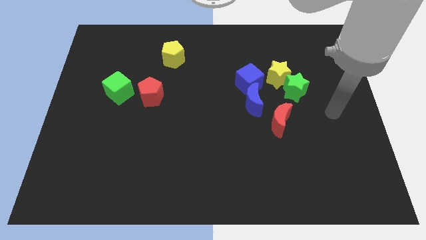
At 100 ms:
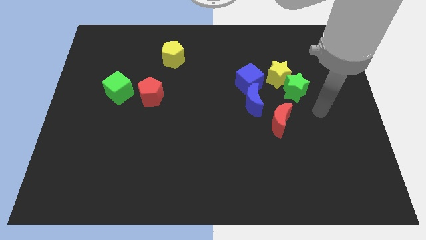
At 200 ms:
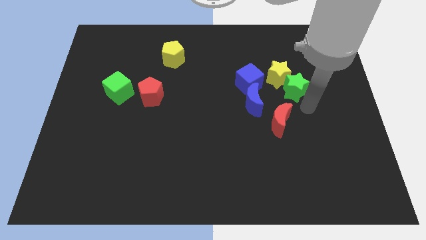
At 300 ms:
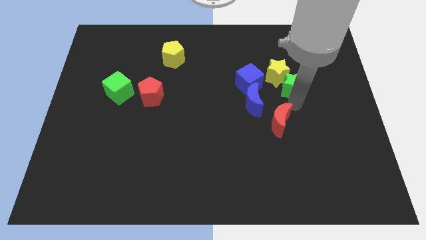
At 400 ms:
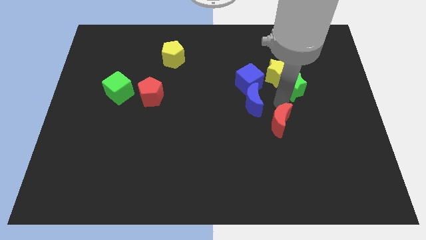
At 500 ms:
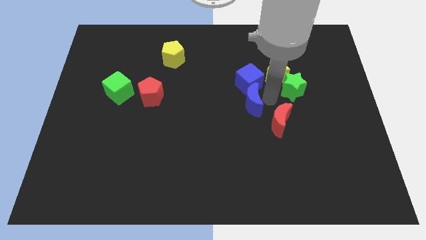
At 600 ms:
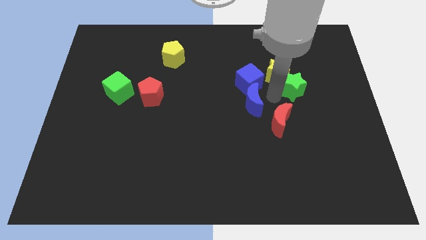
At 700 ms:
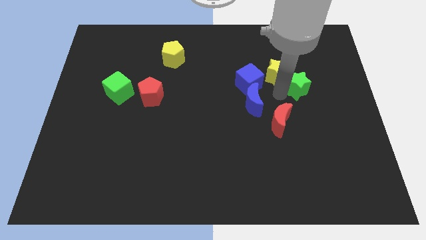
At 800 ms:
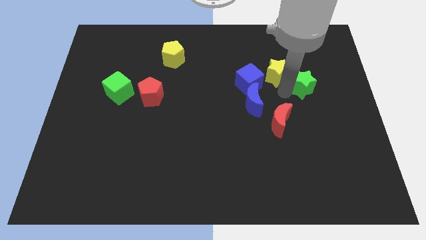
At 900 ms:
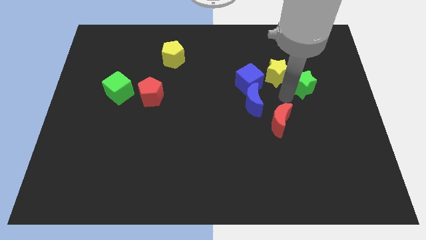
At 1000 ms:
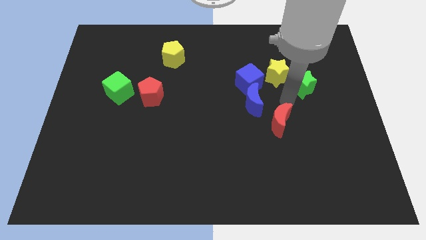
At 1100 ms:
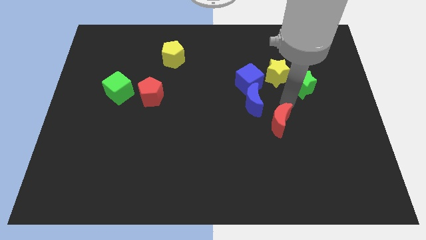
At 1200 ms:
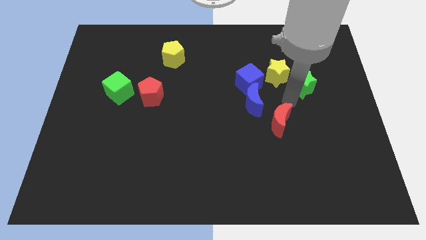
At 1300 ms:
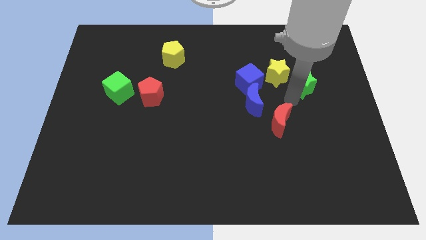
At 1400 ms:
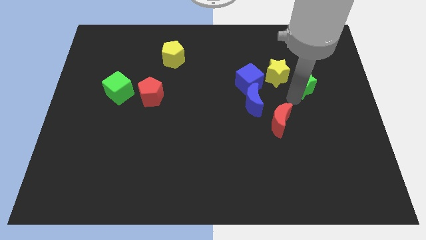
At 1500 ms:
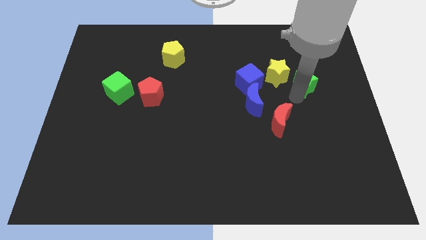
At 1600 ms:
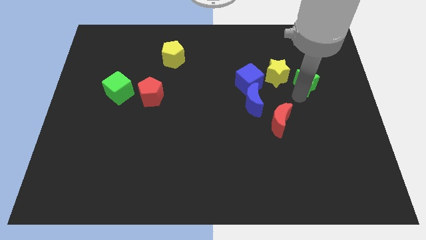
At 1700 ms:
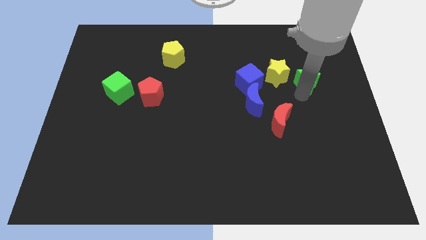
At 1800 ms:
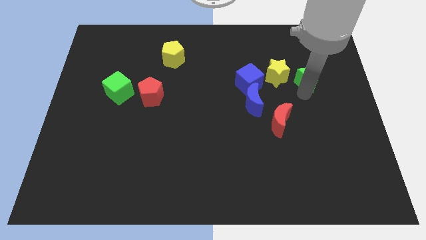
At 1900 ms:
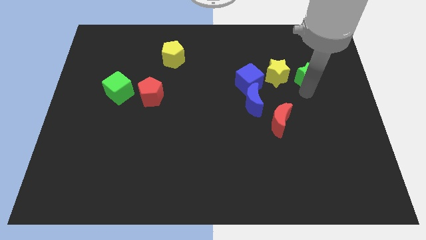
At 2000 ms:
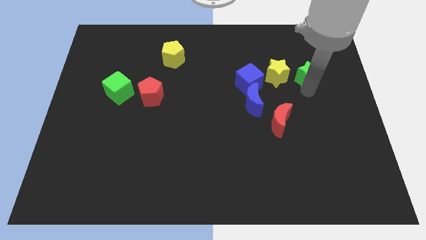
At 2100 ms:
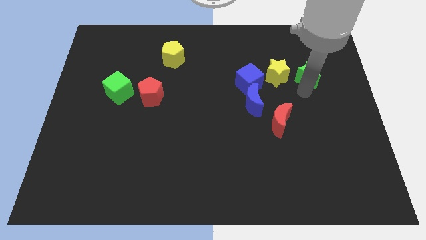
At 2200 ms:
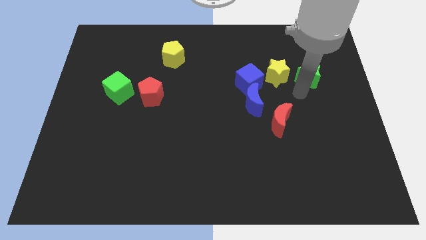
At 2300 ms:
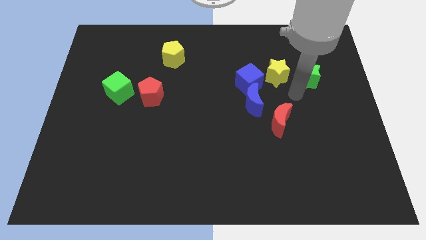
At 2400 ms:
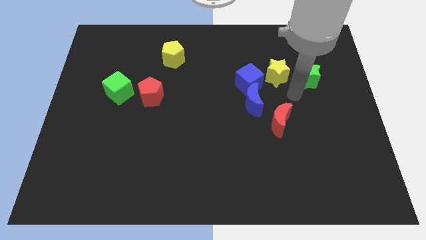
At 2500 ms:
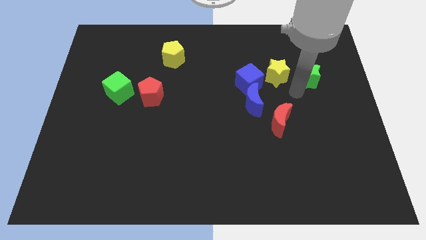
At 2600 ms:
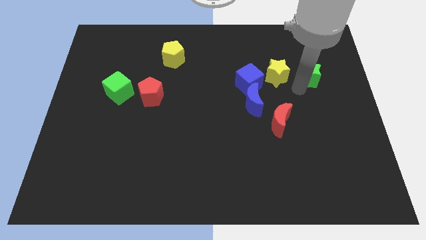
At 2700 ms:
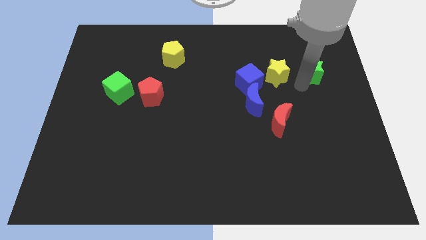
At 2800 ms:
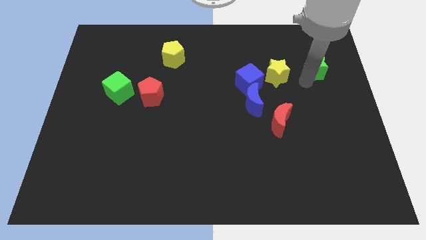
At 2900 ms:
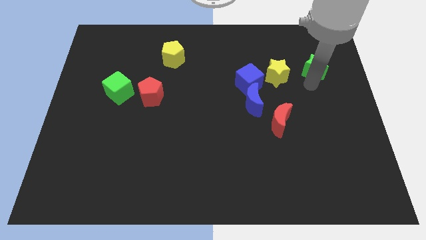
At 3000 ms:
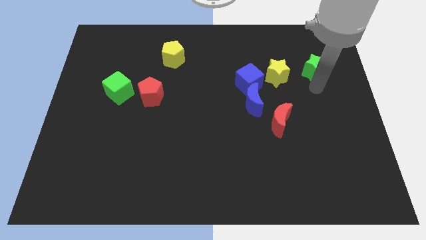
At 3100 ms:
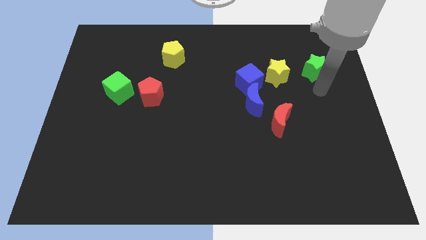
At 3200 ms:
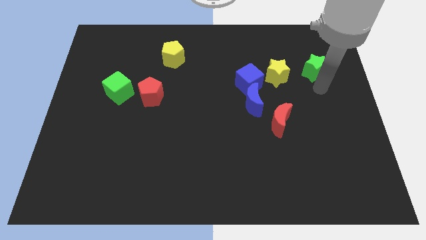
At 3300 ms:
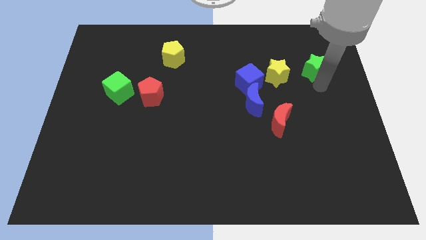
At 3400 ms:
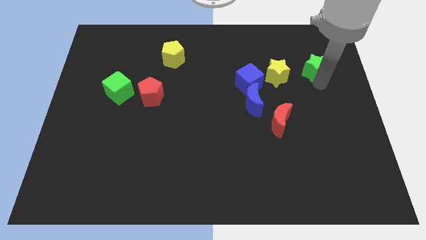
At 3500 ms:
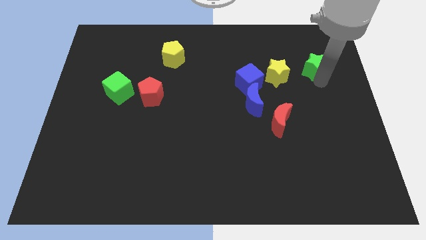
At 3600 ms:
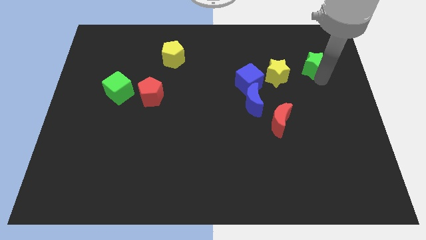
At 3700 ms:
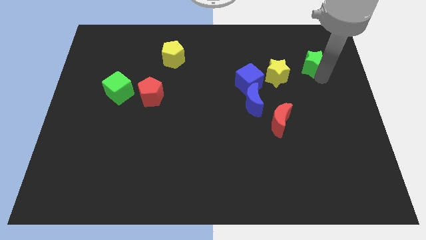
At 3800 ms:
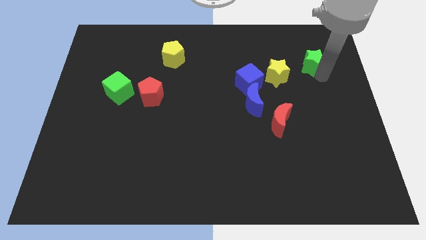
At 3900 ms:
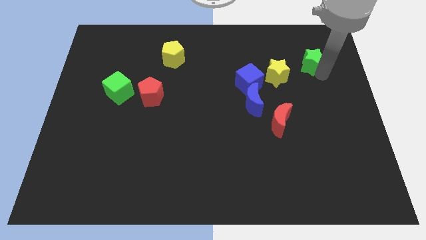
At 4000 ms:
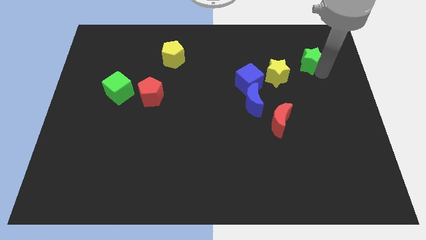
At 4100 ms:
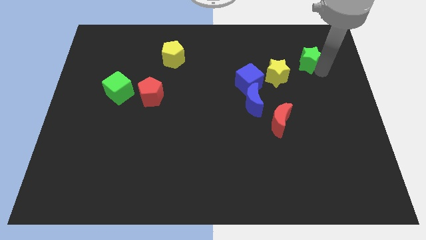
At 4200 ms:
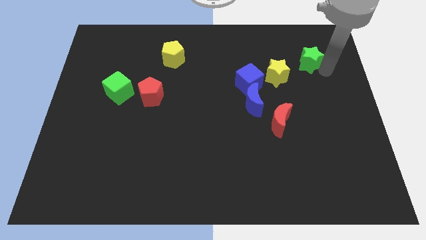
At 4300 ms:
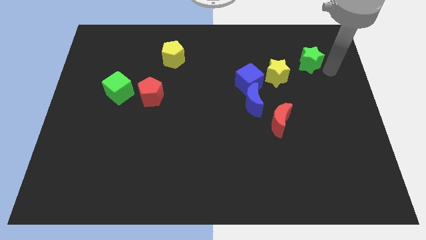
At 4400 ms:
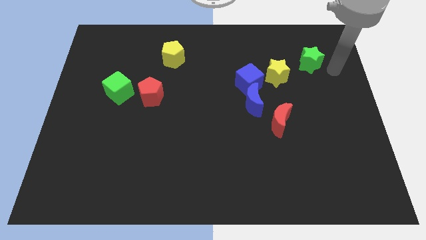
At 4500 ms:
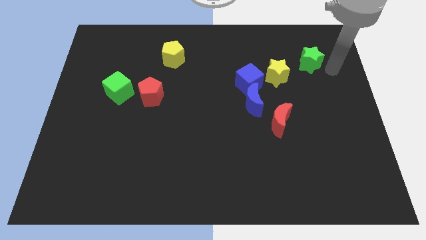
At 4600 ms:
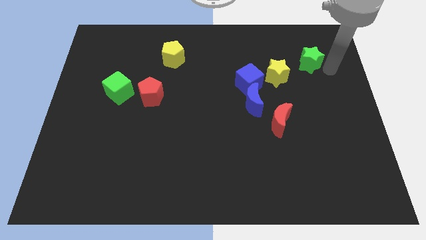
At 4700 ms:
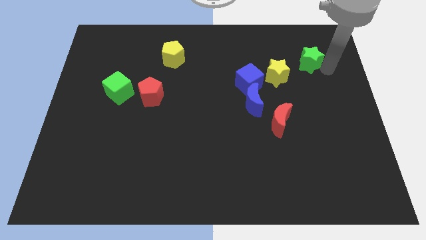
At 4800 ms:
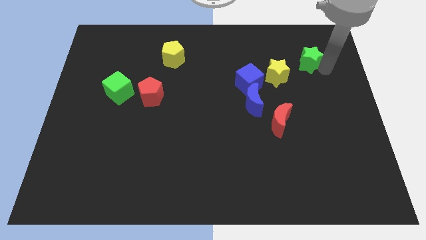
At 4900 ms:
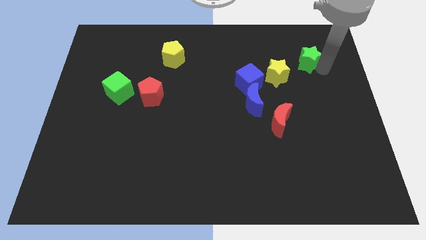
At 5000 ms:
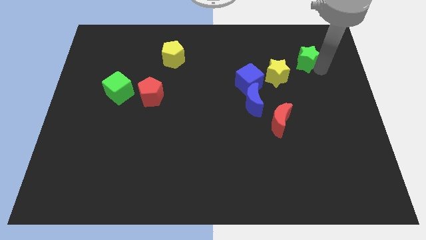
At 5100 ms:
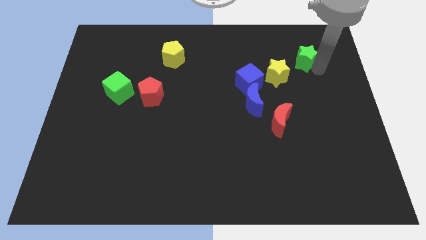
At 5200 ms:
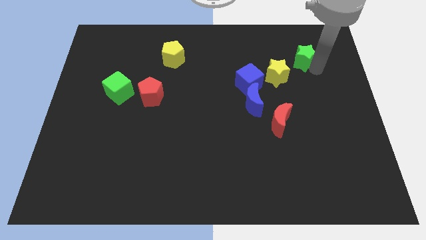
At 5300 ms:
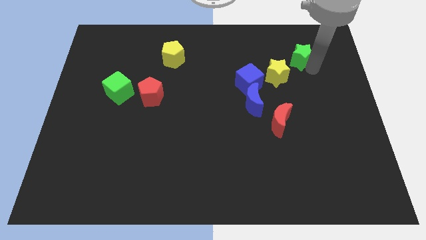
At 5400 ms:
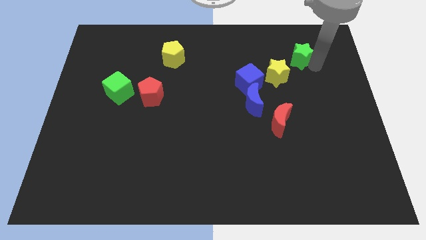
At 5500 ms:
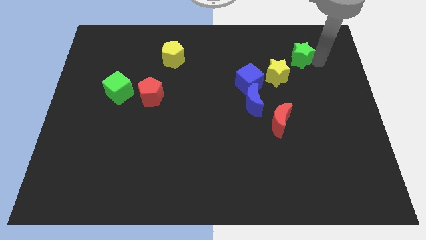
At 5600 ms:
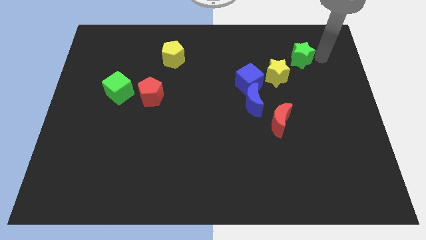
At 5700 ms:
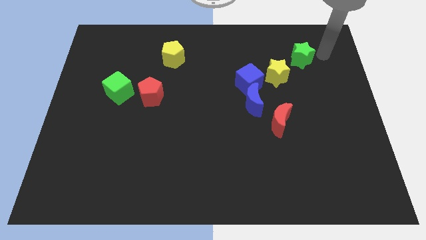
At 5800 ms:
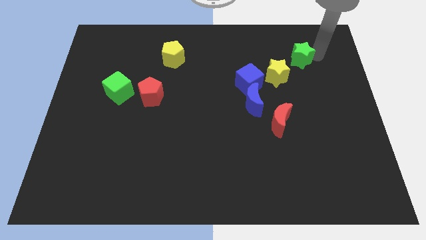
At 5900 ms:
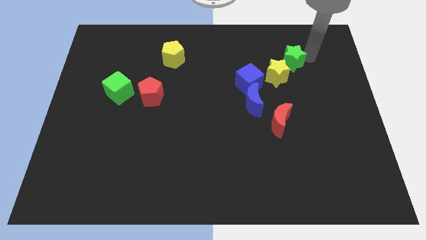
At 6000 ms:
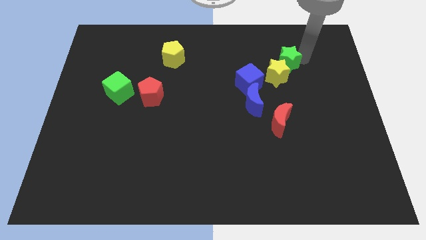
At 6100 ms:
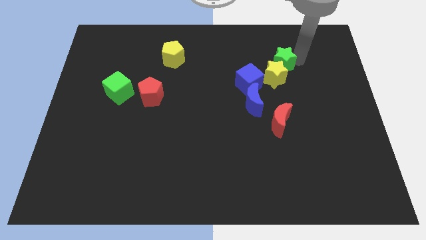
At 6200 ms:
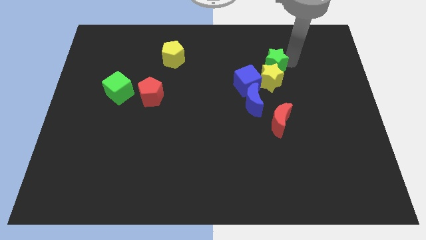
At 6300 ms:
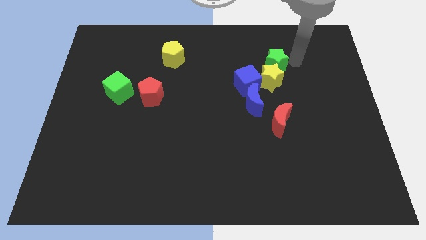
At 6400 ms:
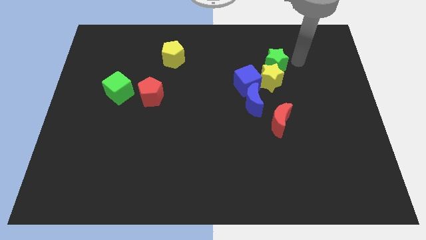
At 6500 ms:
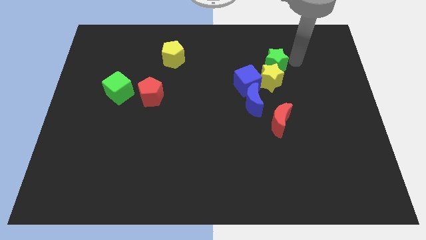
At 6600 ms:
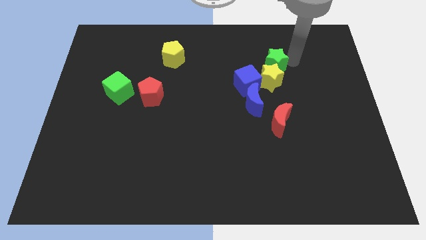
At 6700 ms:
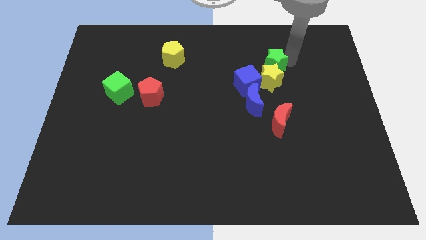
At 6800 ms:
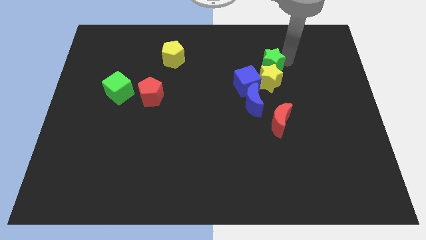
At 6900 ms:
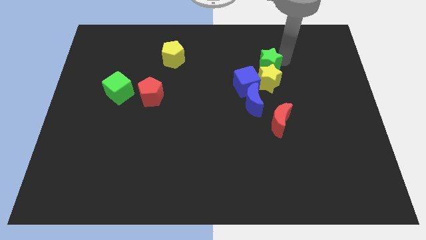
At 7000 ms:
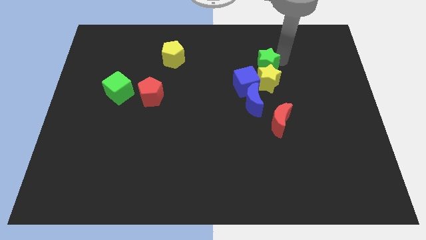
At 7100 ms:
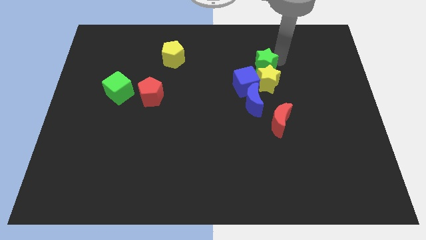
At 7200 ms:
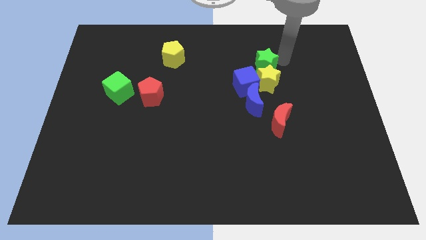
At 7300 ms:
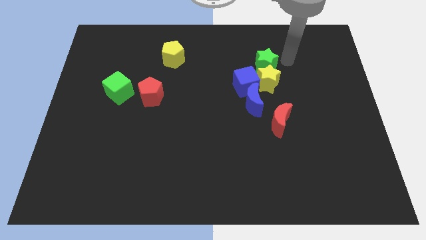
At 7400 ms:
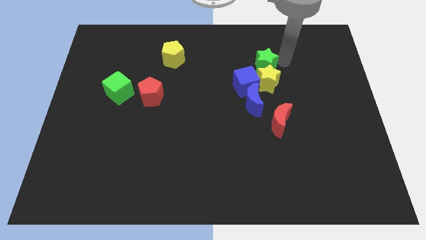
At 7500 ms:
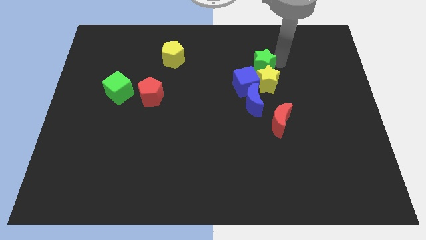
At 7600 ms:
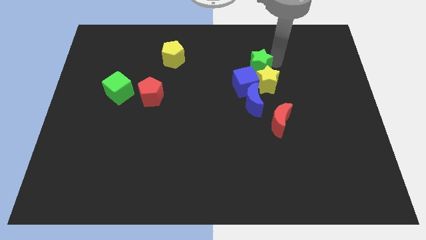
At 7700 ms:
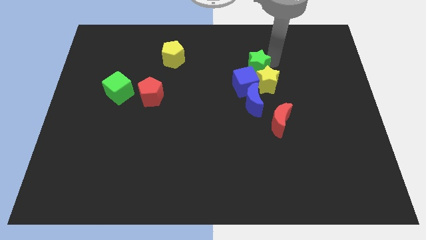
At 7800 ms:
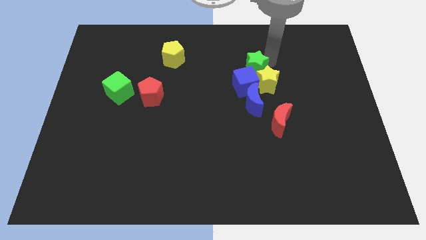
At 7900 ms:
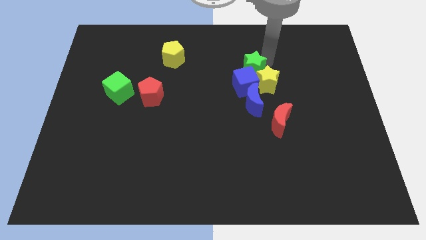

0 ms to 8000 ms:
push the green star to the blue cube
